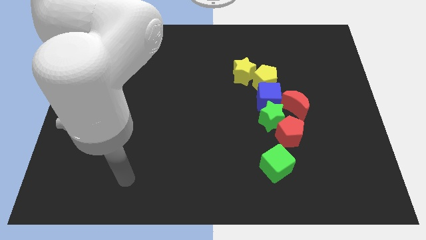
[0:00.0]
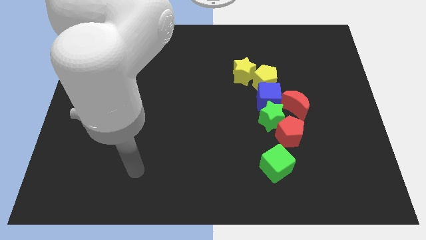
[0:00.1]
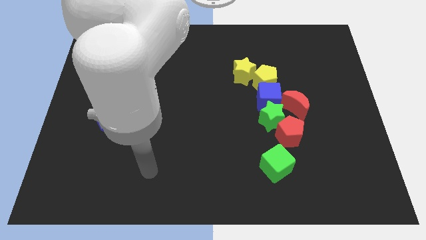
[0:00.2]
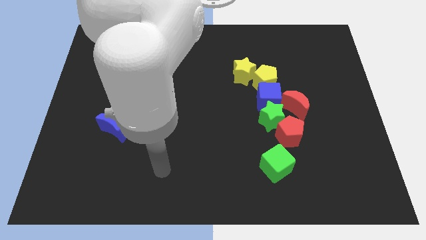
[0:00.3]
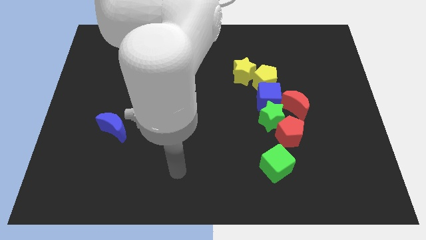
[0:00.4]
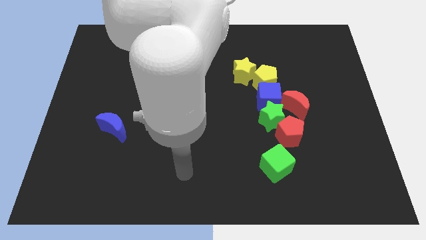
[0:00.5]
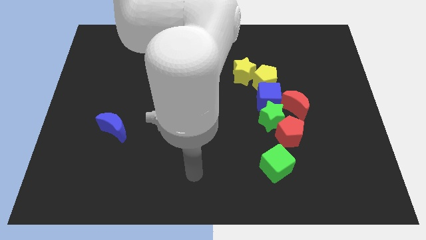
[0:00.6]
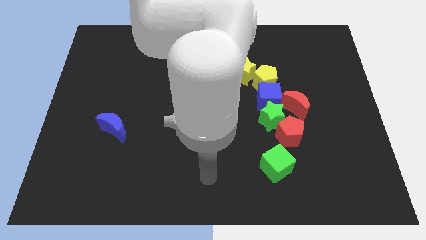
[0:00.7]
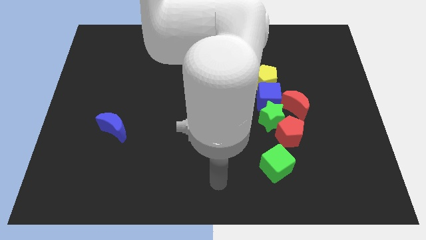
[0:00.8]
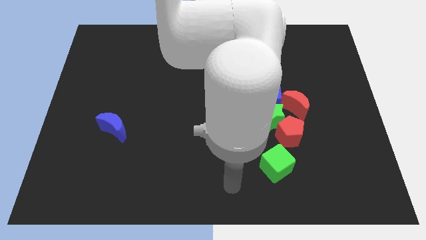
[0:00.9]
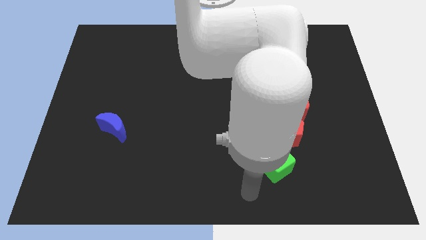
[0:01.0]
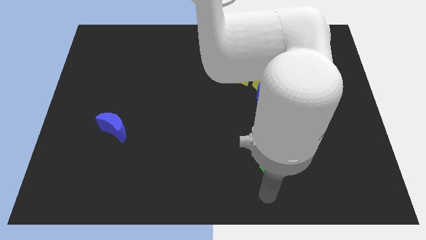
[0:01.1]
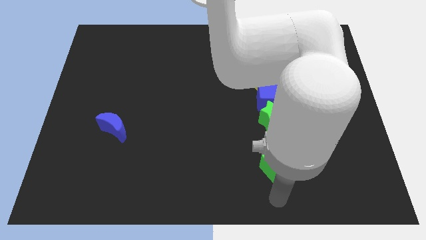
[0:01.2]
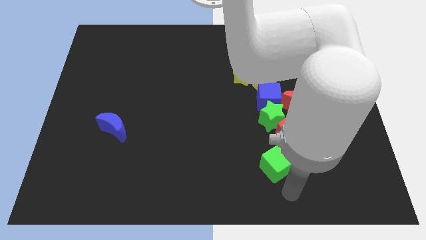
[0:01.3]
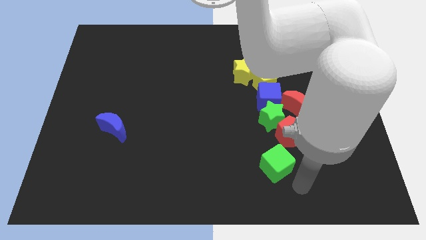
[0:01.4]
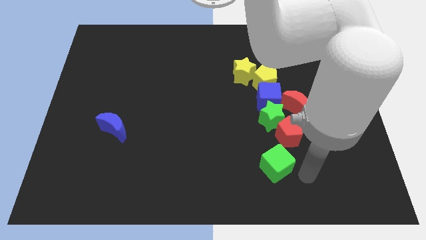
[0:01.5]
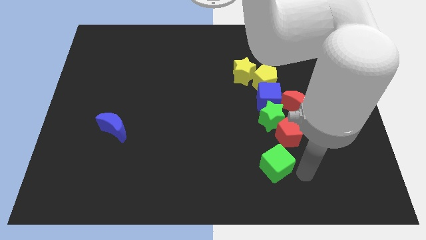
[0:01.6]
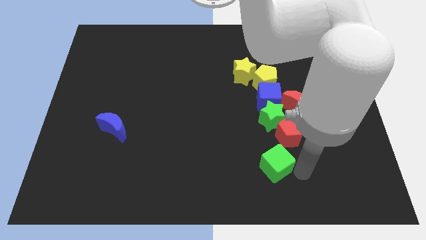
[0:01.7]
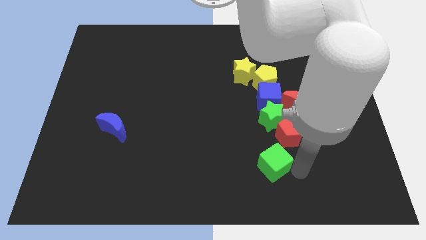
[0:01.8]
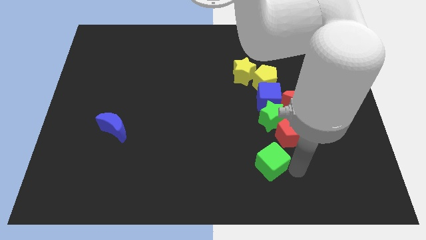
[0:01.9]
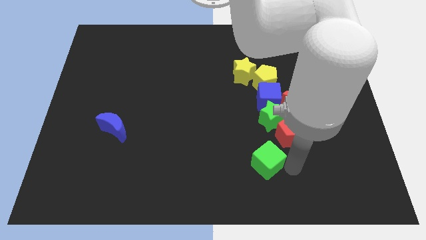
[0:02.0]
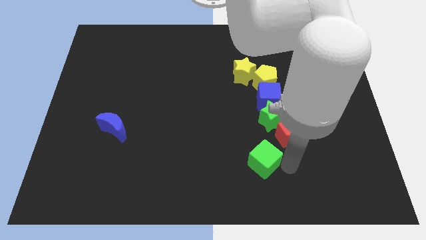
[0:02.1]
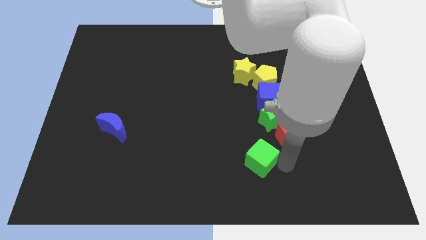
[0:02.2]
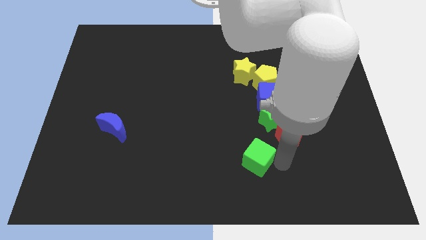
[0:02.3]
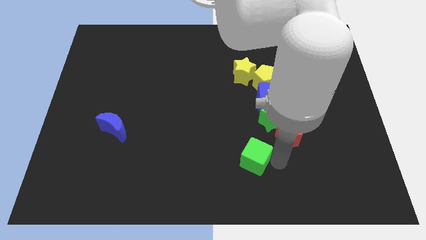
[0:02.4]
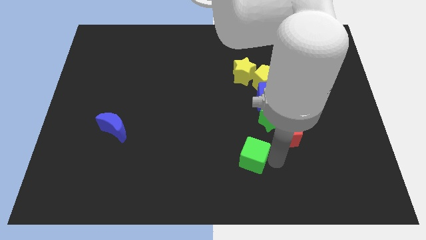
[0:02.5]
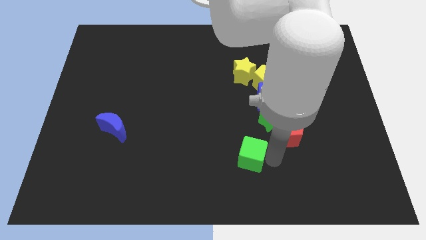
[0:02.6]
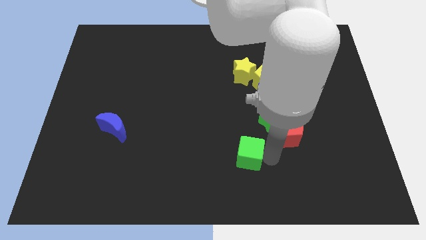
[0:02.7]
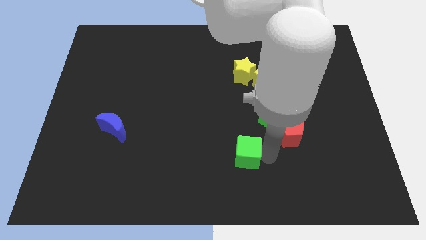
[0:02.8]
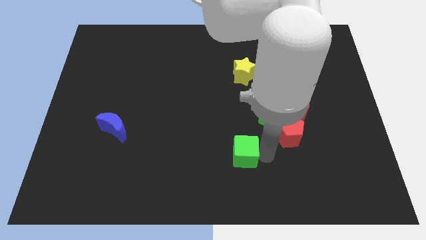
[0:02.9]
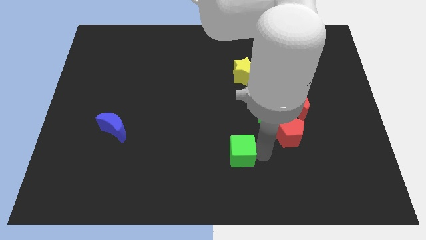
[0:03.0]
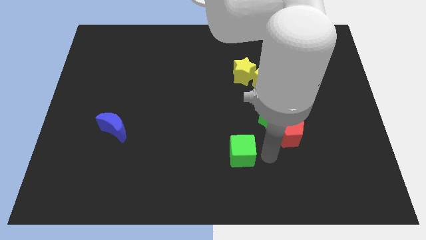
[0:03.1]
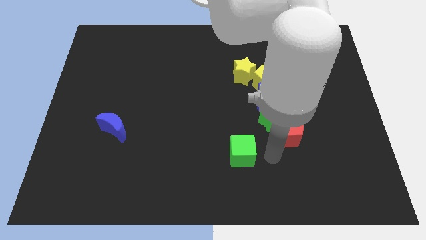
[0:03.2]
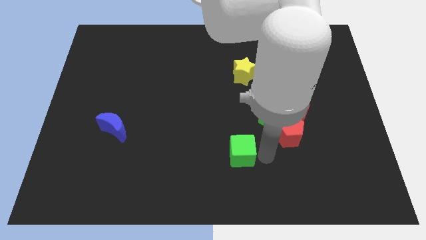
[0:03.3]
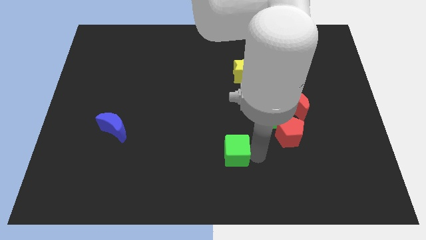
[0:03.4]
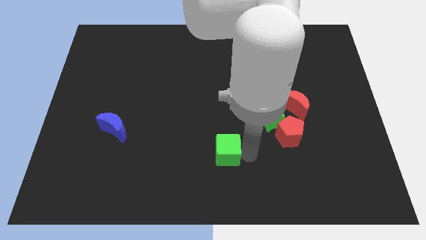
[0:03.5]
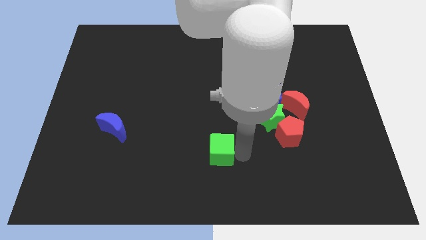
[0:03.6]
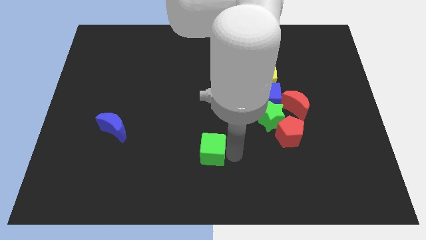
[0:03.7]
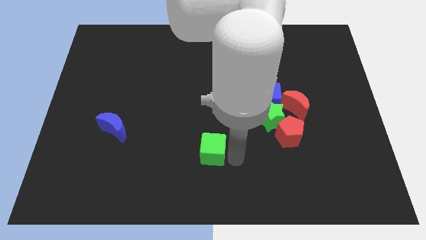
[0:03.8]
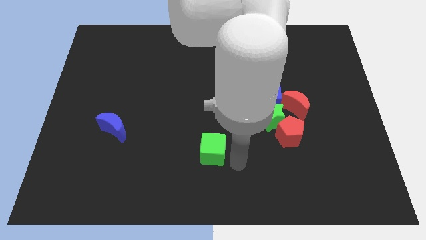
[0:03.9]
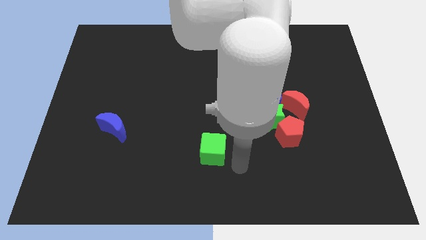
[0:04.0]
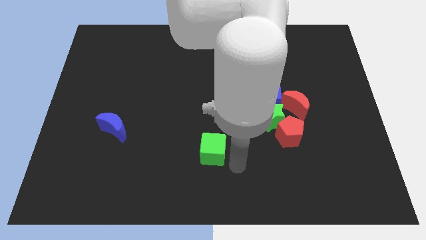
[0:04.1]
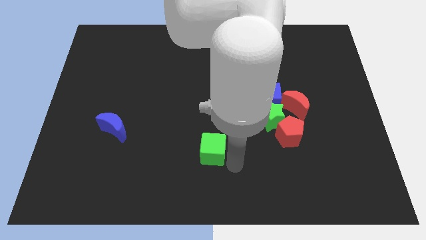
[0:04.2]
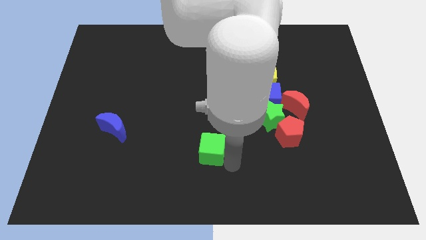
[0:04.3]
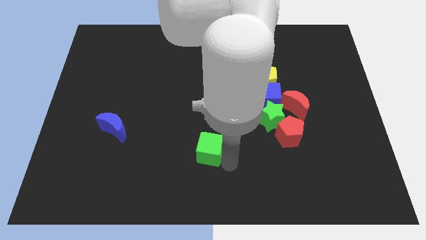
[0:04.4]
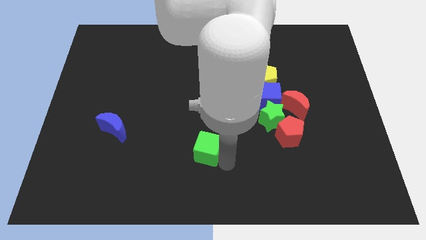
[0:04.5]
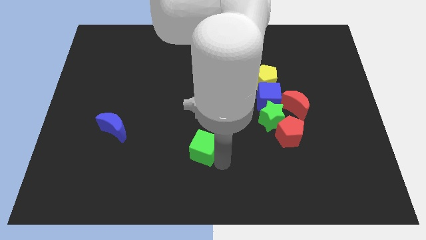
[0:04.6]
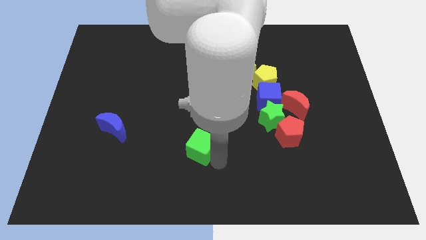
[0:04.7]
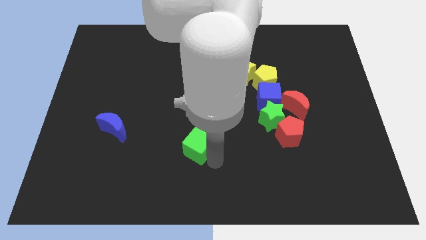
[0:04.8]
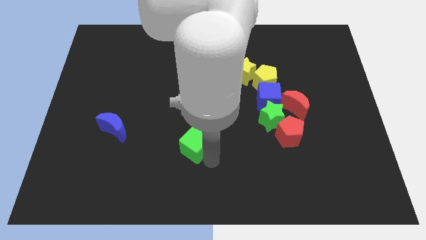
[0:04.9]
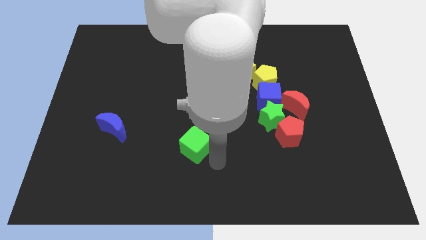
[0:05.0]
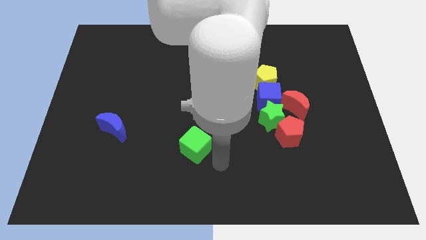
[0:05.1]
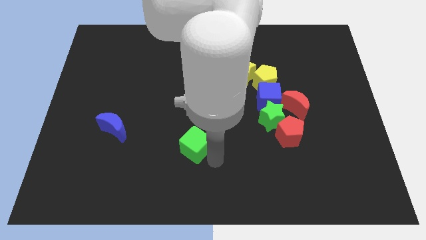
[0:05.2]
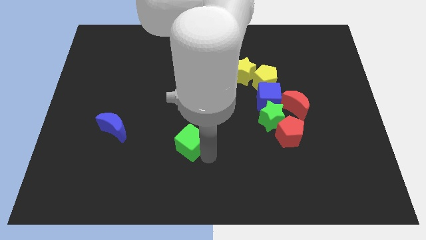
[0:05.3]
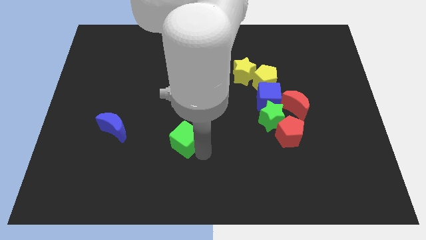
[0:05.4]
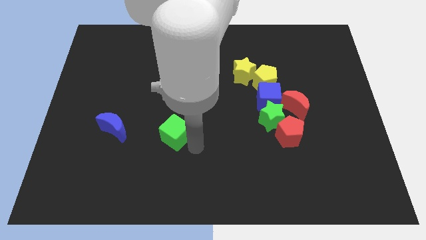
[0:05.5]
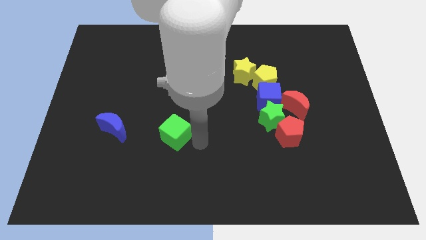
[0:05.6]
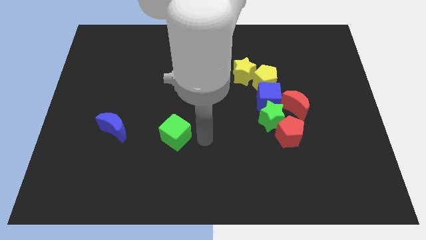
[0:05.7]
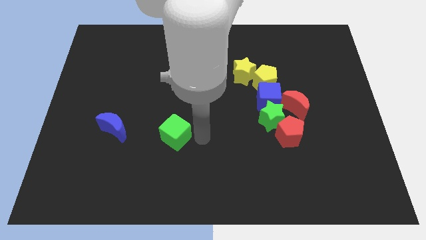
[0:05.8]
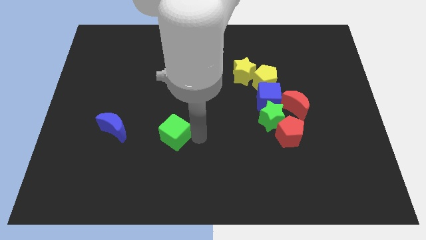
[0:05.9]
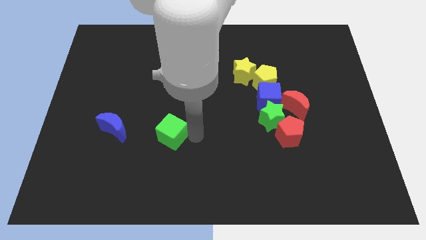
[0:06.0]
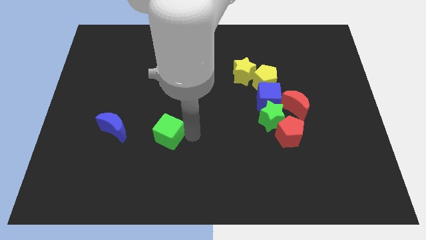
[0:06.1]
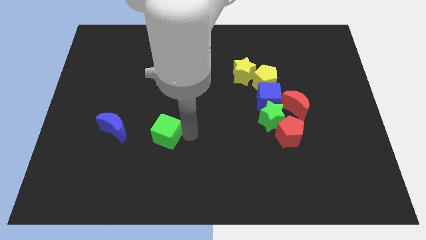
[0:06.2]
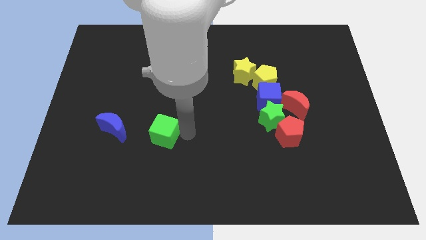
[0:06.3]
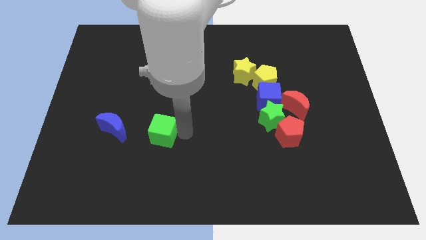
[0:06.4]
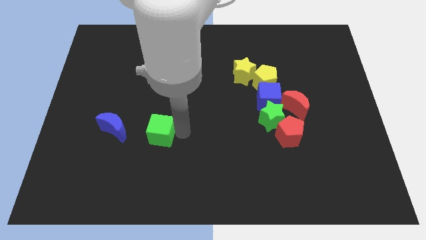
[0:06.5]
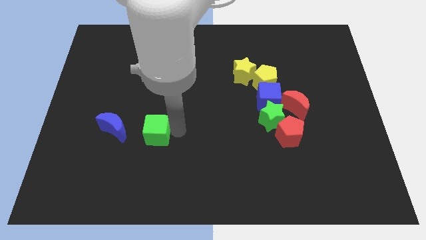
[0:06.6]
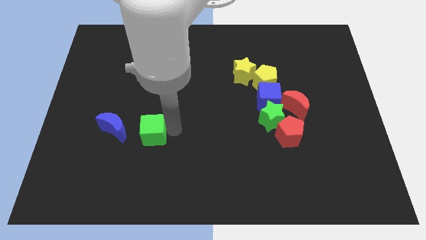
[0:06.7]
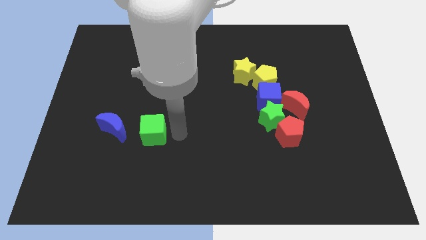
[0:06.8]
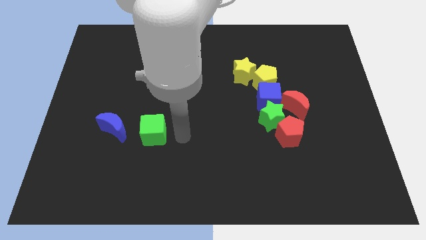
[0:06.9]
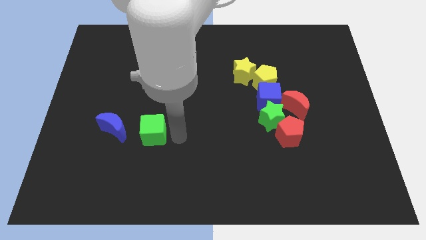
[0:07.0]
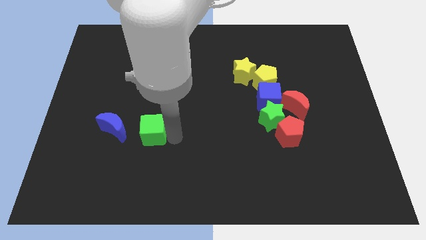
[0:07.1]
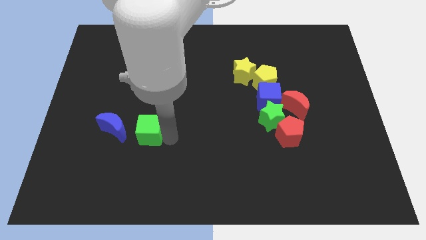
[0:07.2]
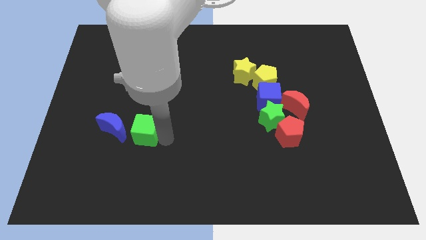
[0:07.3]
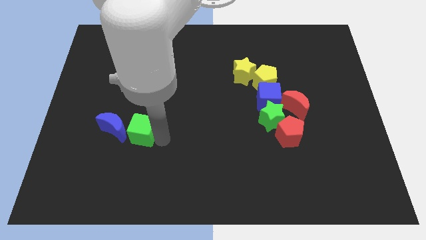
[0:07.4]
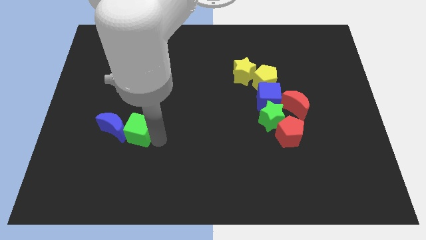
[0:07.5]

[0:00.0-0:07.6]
slide the green cube towards the blue moon
